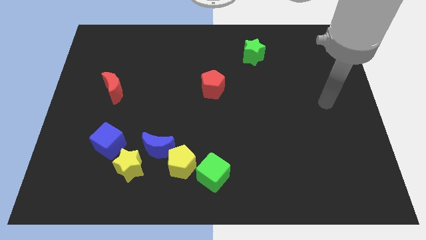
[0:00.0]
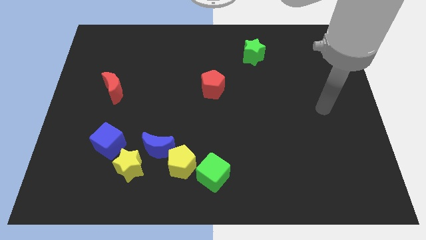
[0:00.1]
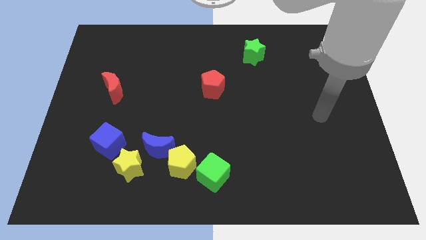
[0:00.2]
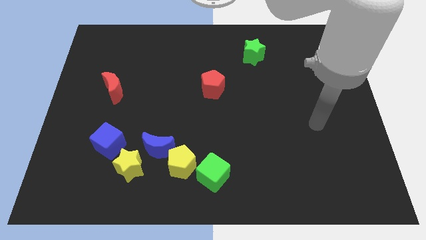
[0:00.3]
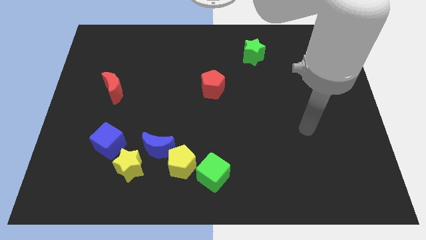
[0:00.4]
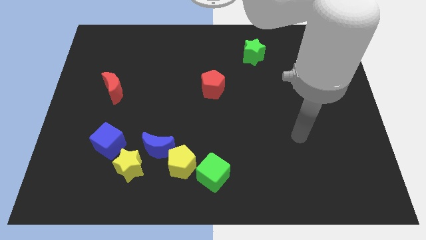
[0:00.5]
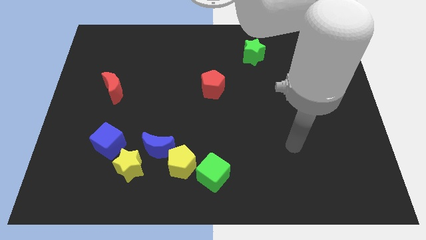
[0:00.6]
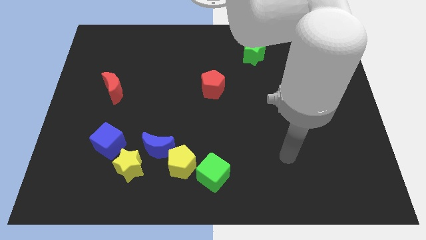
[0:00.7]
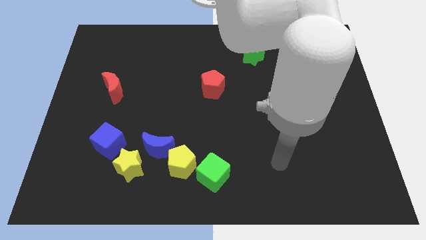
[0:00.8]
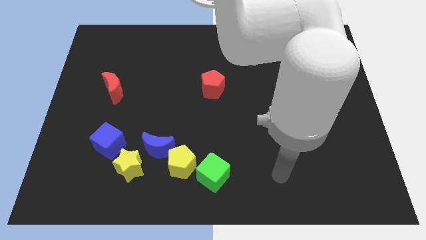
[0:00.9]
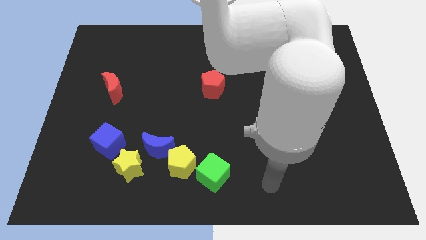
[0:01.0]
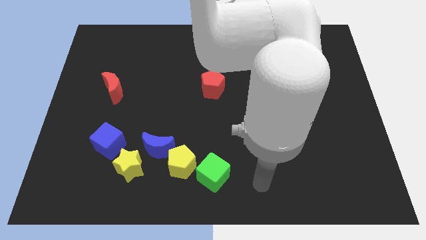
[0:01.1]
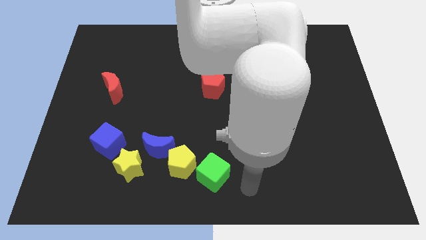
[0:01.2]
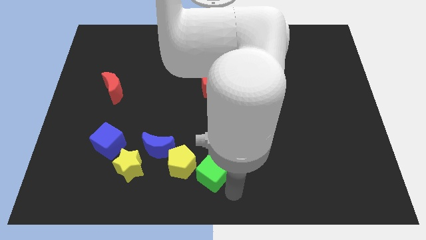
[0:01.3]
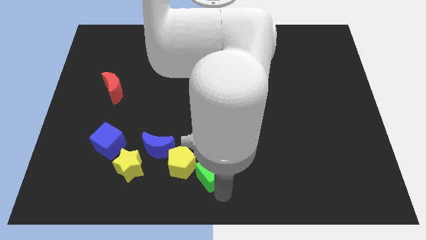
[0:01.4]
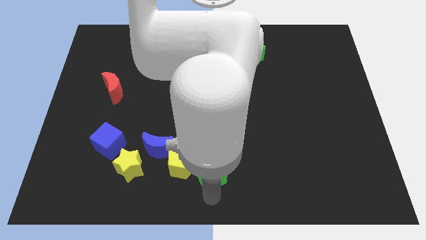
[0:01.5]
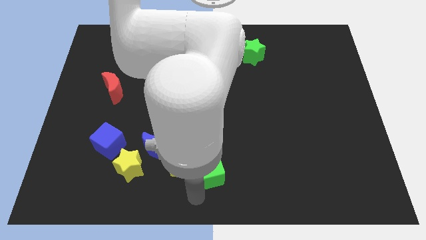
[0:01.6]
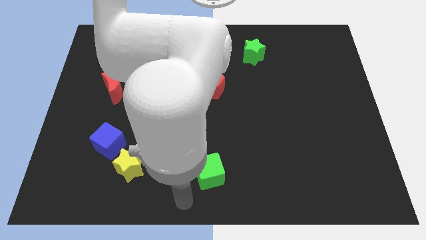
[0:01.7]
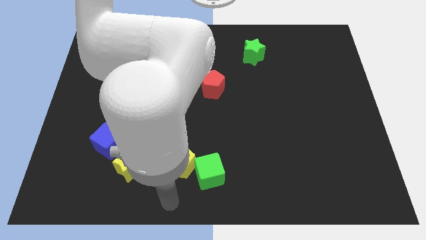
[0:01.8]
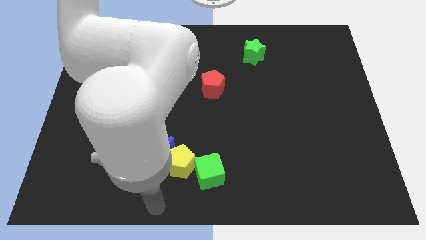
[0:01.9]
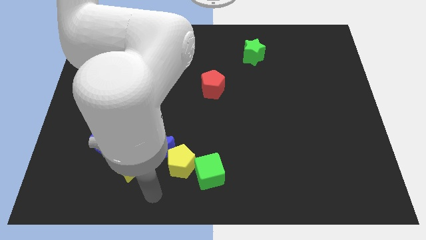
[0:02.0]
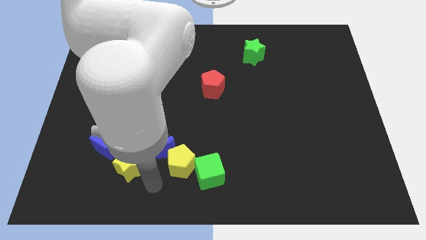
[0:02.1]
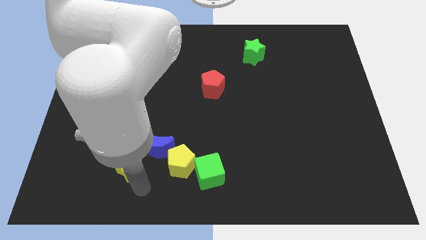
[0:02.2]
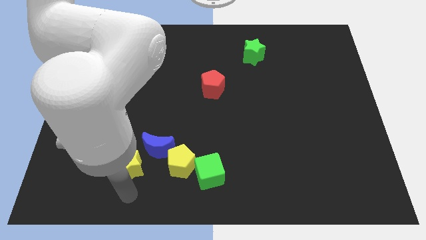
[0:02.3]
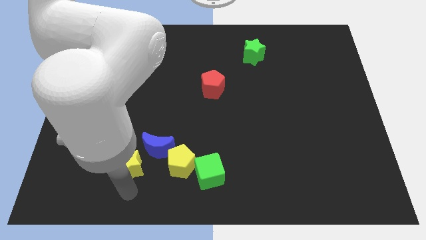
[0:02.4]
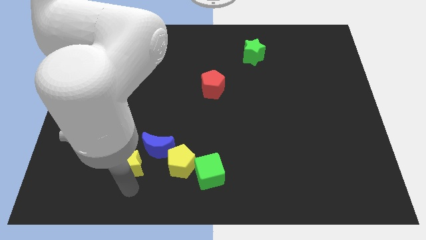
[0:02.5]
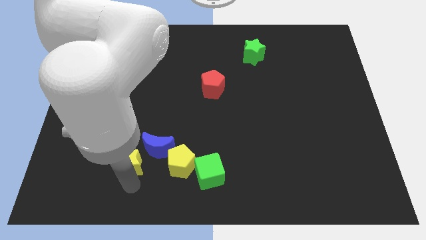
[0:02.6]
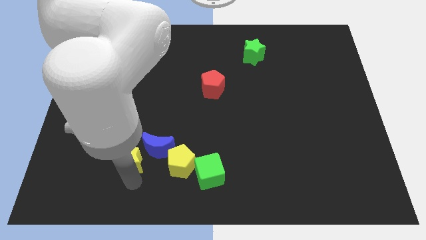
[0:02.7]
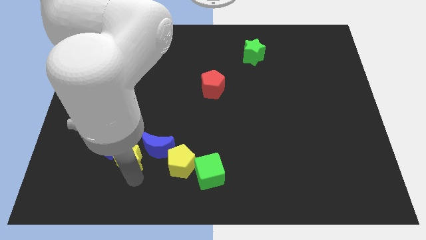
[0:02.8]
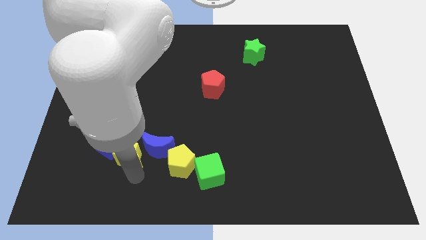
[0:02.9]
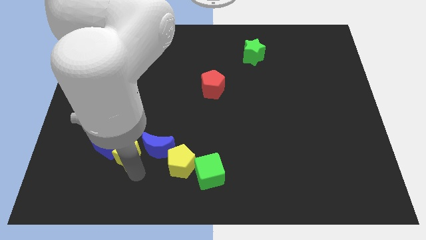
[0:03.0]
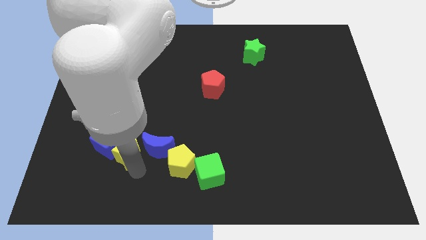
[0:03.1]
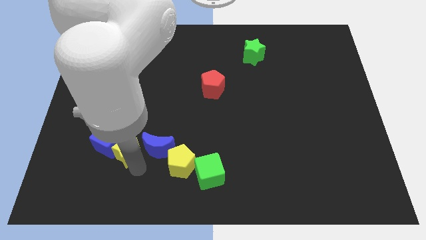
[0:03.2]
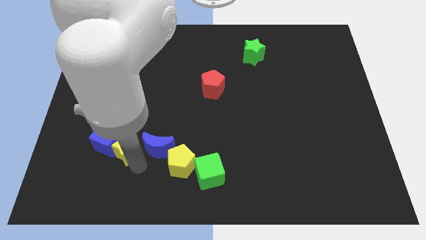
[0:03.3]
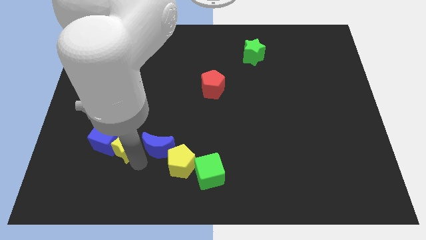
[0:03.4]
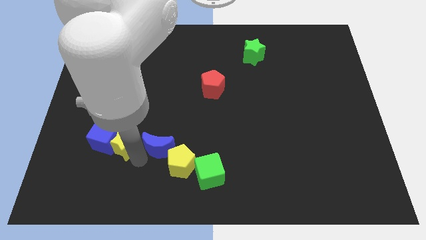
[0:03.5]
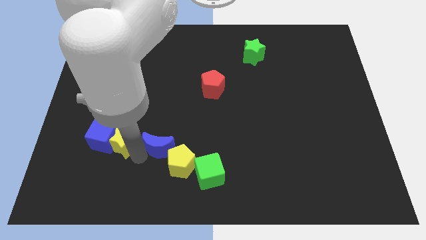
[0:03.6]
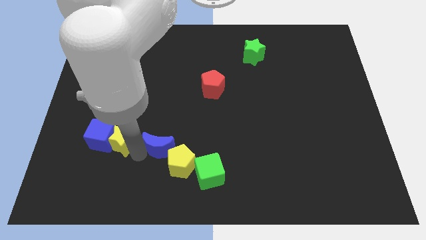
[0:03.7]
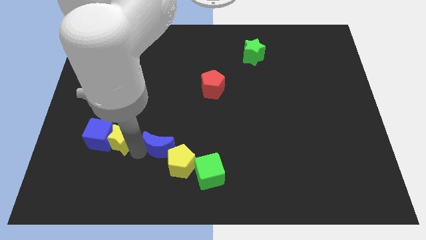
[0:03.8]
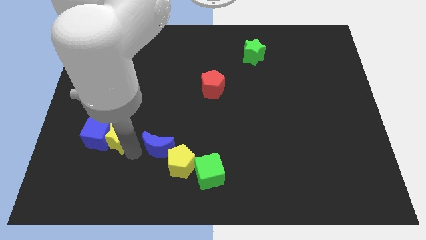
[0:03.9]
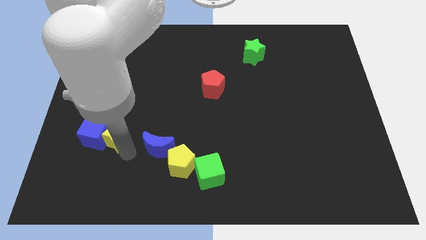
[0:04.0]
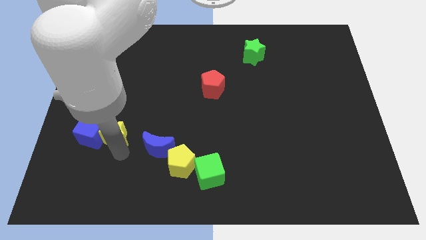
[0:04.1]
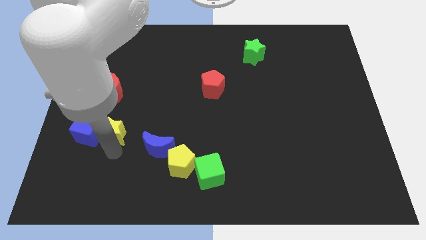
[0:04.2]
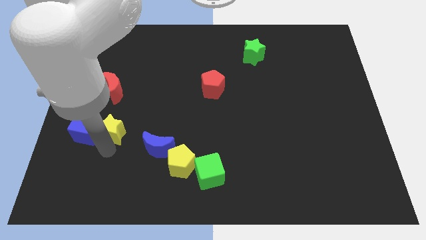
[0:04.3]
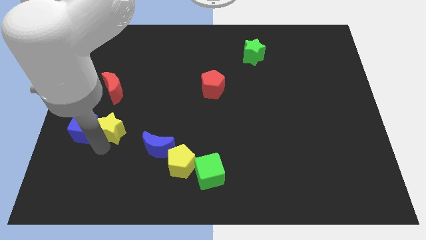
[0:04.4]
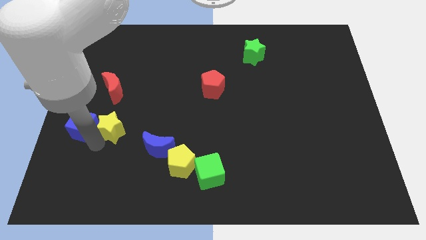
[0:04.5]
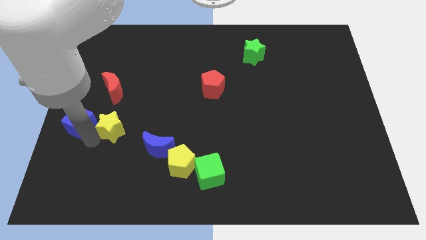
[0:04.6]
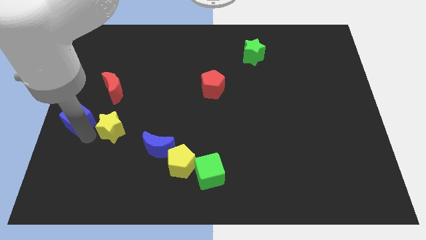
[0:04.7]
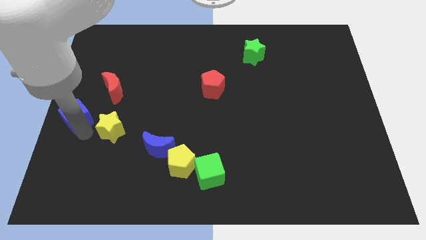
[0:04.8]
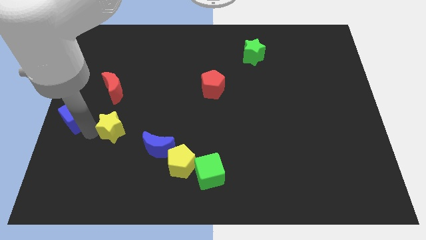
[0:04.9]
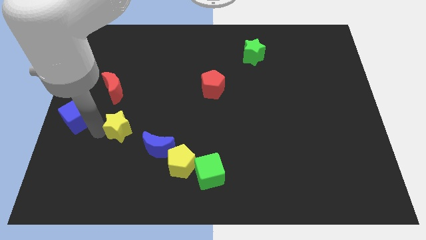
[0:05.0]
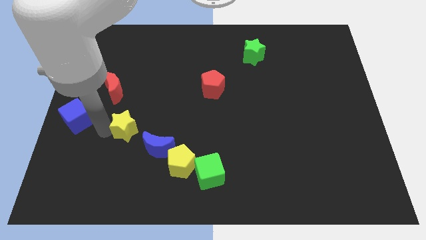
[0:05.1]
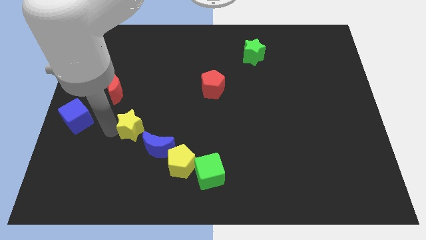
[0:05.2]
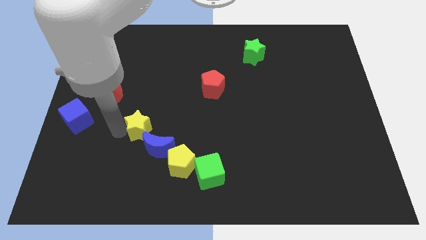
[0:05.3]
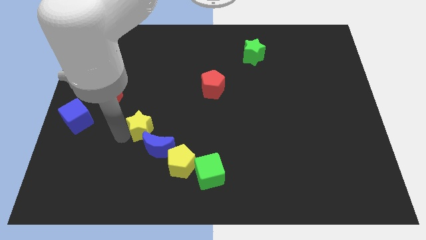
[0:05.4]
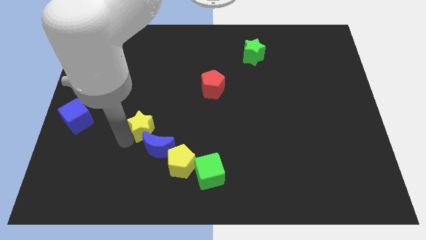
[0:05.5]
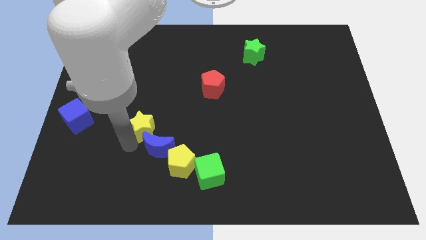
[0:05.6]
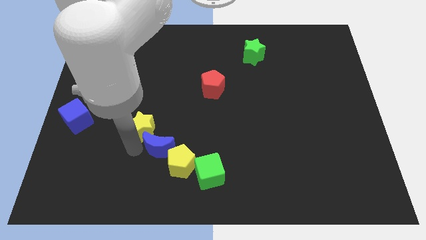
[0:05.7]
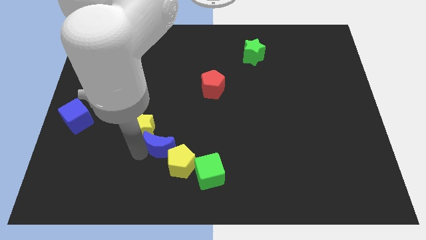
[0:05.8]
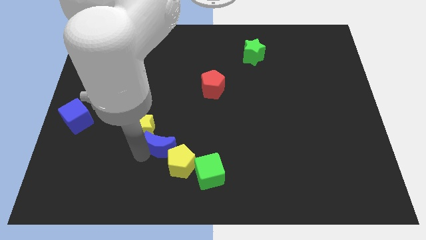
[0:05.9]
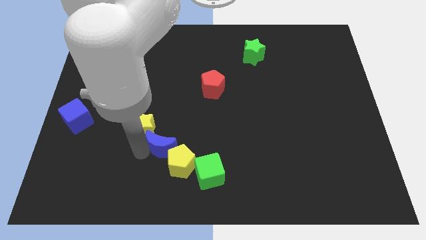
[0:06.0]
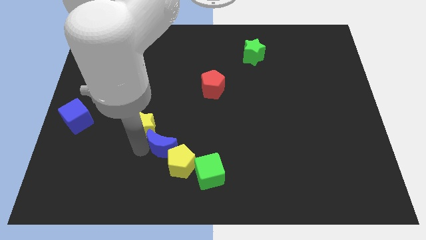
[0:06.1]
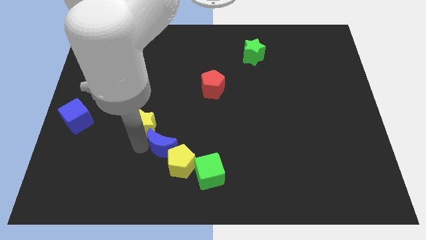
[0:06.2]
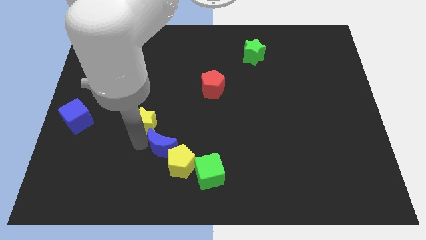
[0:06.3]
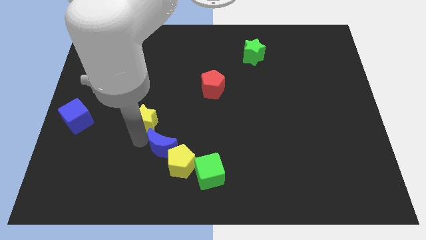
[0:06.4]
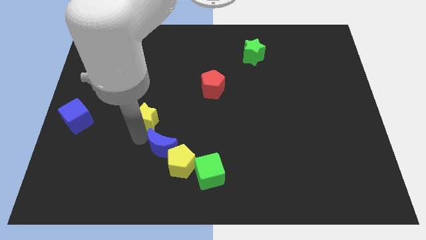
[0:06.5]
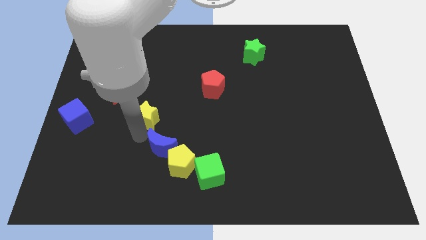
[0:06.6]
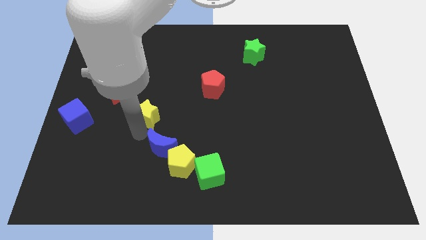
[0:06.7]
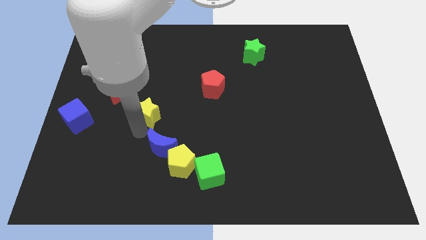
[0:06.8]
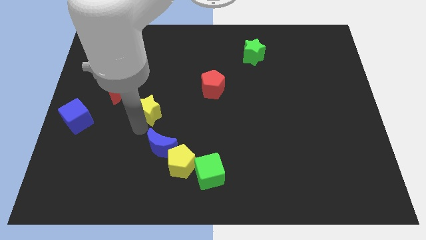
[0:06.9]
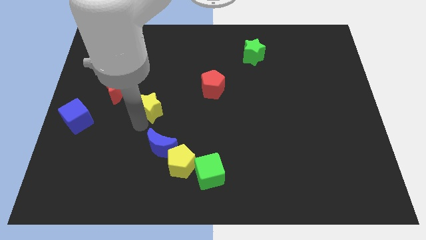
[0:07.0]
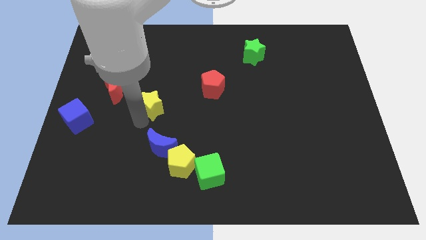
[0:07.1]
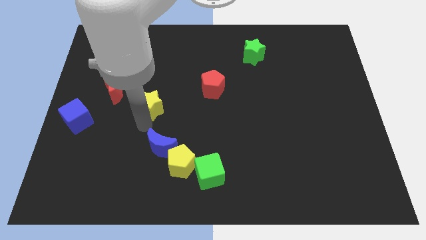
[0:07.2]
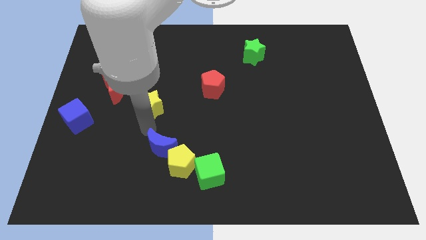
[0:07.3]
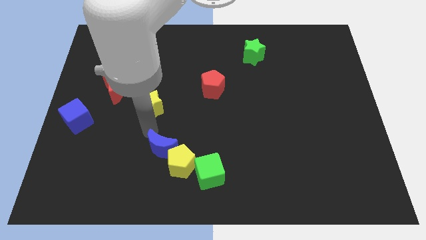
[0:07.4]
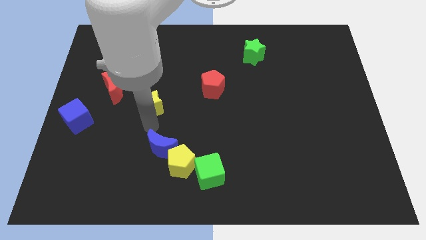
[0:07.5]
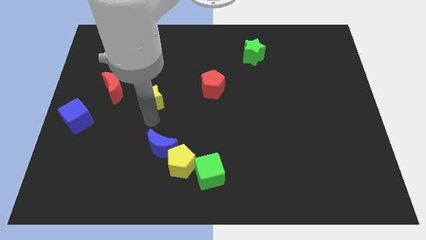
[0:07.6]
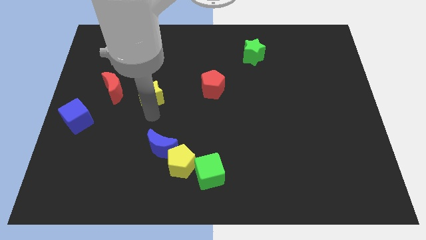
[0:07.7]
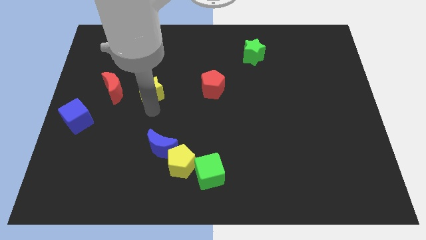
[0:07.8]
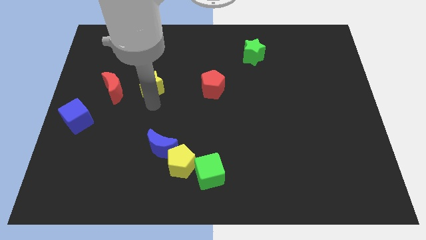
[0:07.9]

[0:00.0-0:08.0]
push the yellow star upwards
